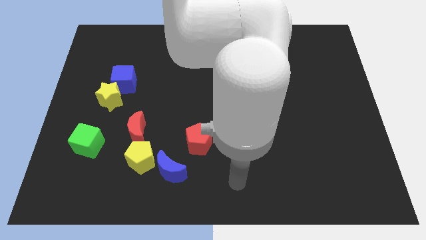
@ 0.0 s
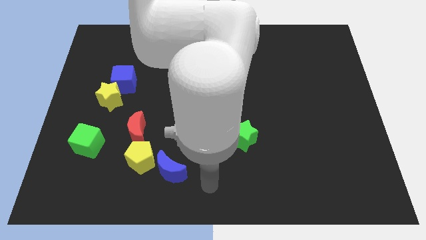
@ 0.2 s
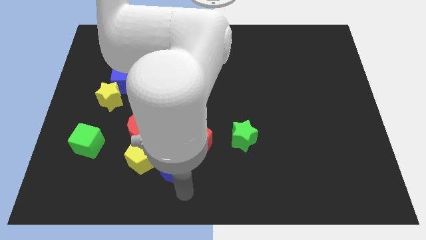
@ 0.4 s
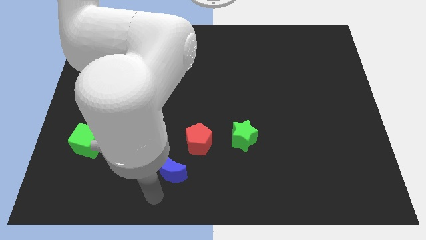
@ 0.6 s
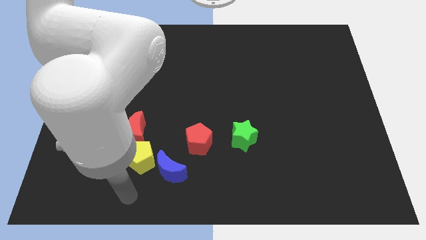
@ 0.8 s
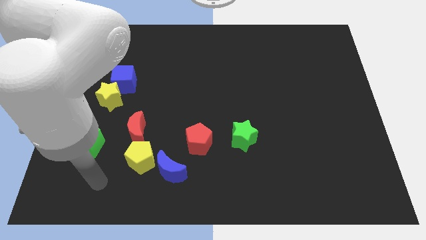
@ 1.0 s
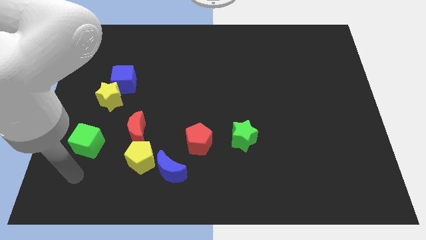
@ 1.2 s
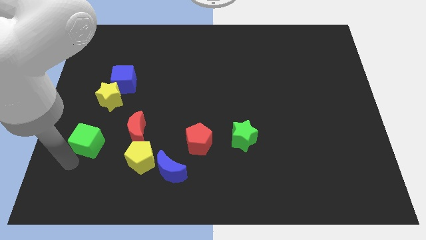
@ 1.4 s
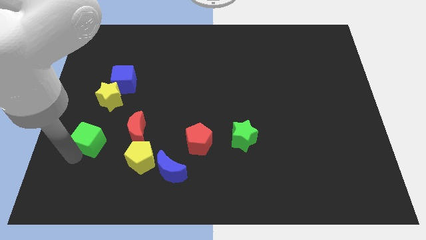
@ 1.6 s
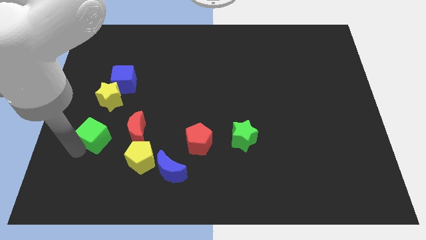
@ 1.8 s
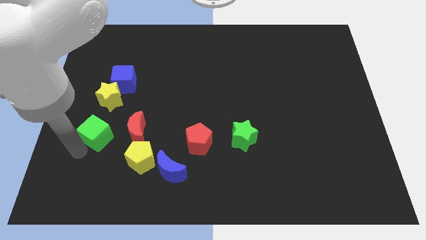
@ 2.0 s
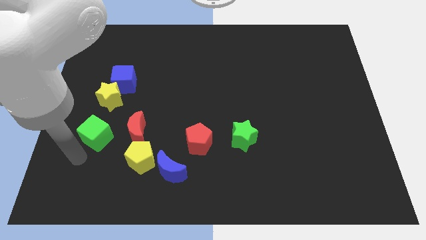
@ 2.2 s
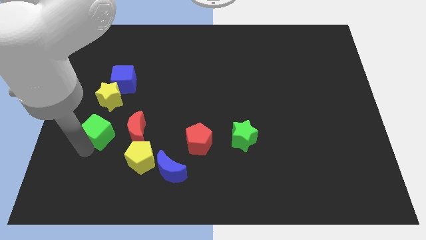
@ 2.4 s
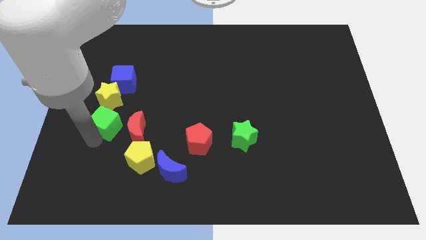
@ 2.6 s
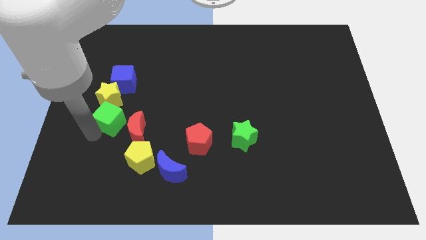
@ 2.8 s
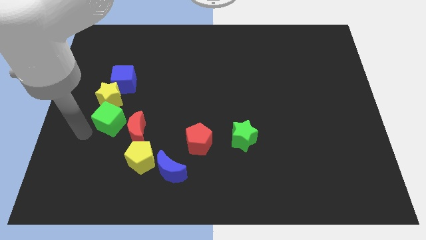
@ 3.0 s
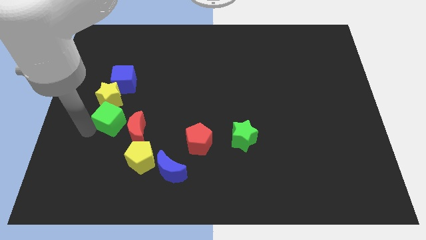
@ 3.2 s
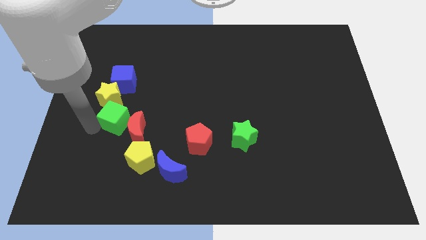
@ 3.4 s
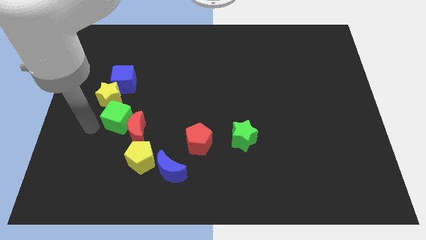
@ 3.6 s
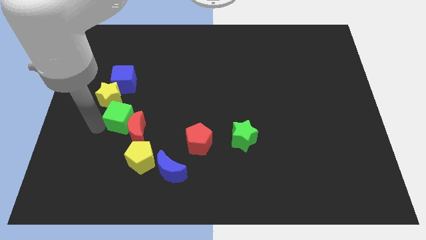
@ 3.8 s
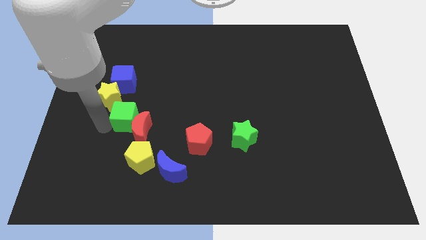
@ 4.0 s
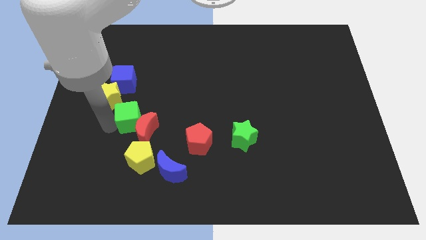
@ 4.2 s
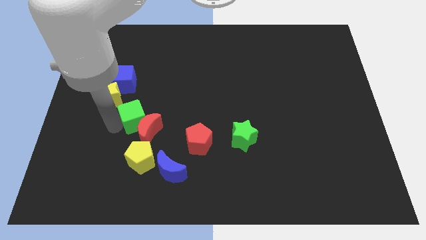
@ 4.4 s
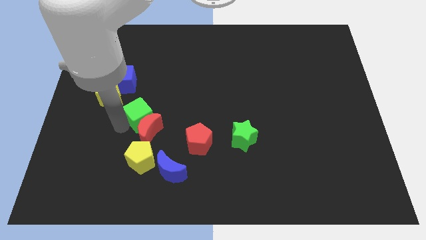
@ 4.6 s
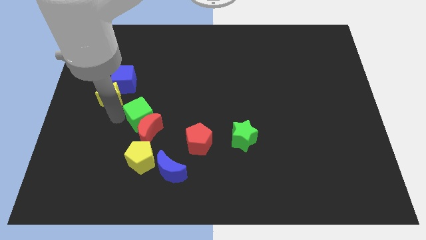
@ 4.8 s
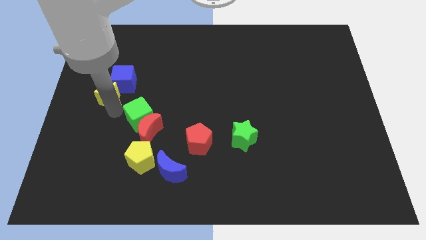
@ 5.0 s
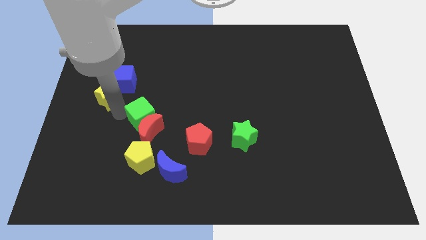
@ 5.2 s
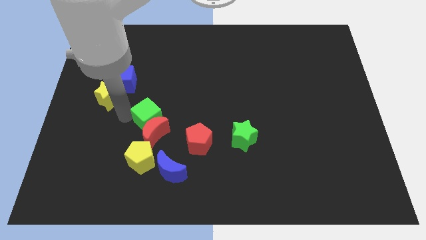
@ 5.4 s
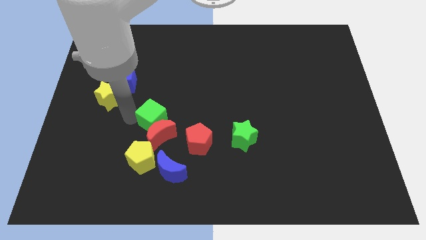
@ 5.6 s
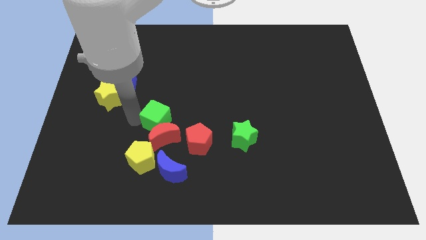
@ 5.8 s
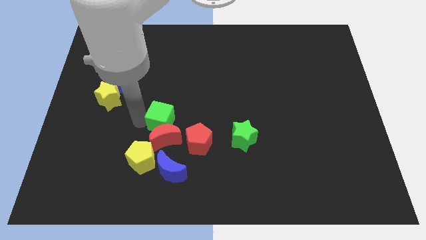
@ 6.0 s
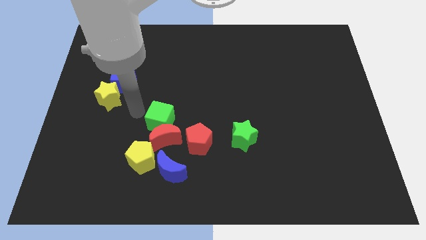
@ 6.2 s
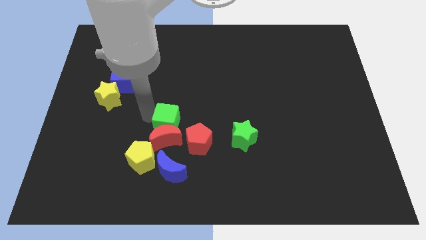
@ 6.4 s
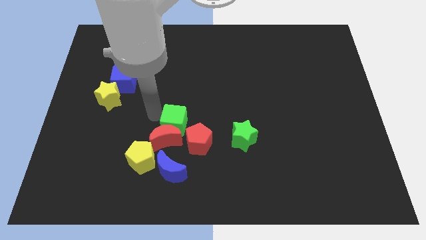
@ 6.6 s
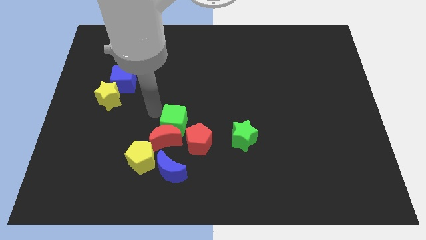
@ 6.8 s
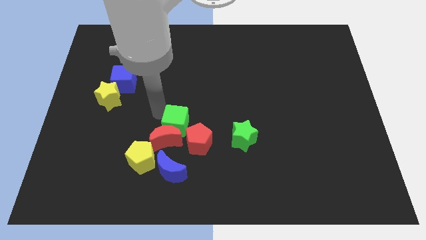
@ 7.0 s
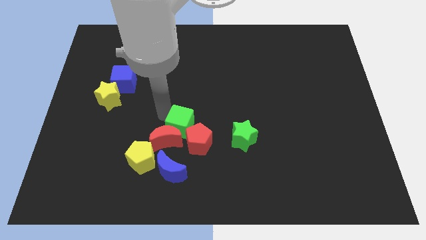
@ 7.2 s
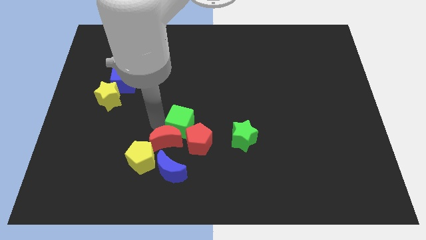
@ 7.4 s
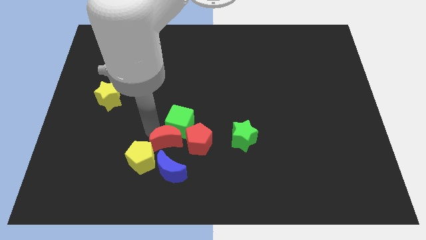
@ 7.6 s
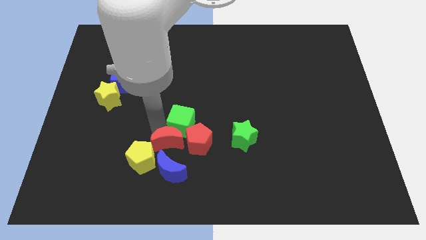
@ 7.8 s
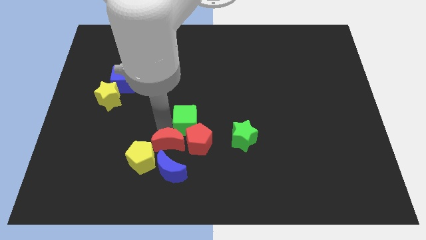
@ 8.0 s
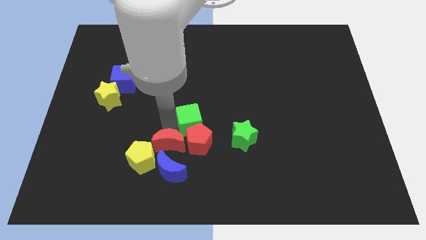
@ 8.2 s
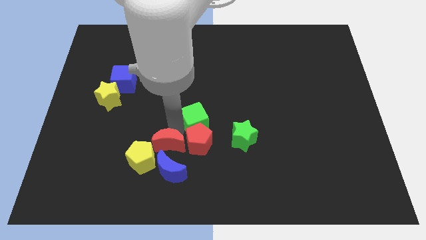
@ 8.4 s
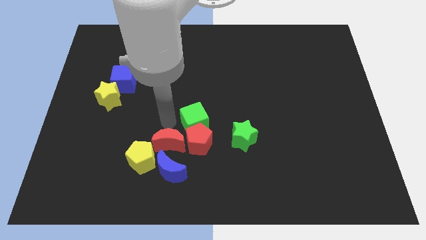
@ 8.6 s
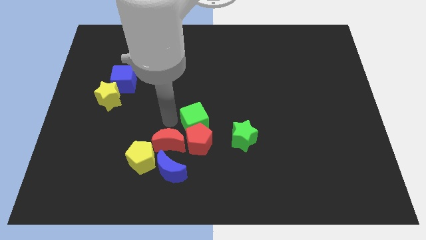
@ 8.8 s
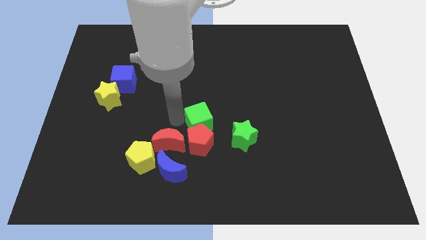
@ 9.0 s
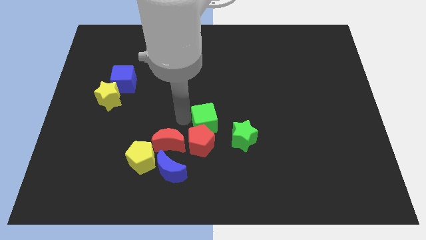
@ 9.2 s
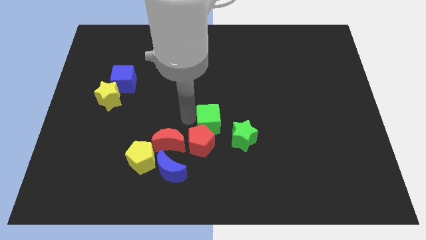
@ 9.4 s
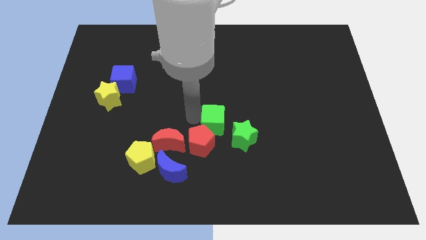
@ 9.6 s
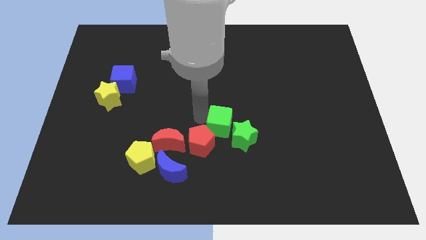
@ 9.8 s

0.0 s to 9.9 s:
move the green cube to the green star

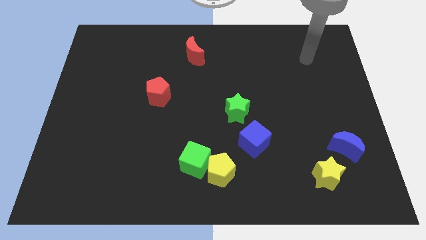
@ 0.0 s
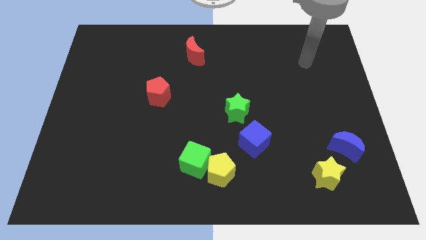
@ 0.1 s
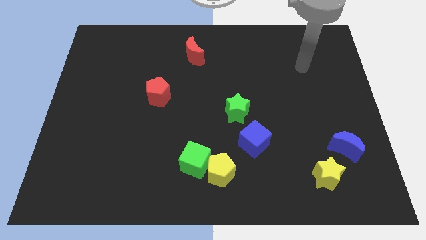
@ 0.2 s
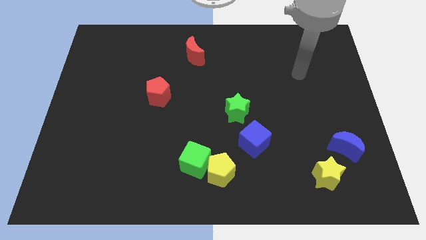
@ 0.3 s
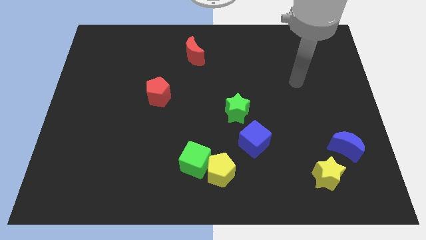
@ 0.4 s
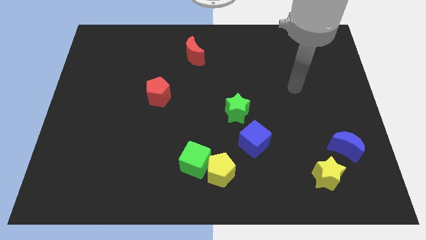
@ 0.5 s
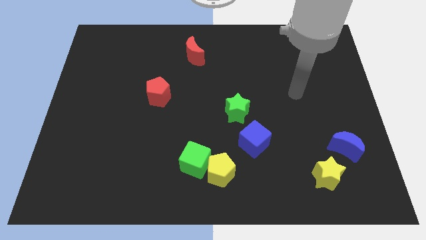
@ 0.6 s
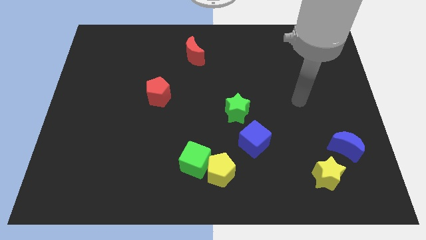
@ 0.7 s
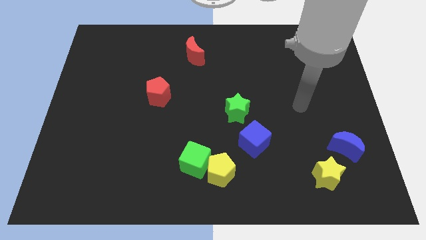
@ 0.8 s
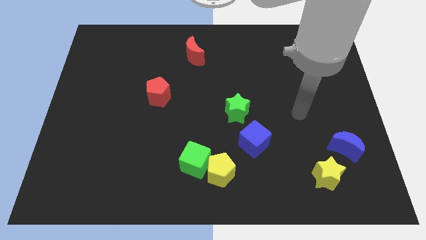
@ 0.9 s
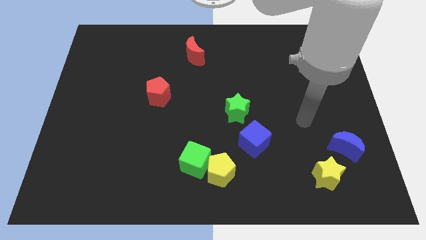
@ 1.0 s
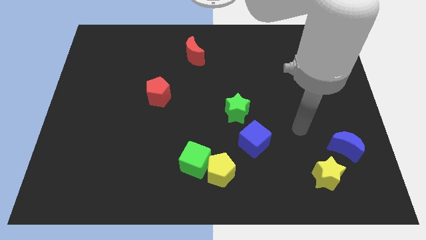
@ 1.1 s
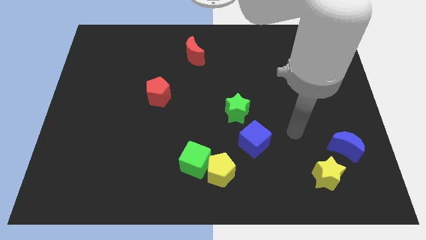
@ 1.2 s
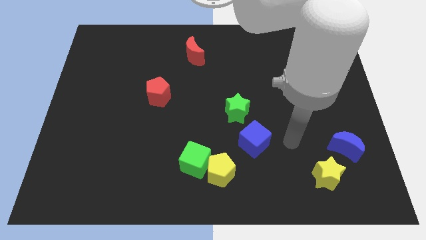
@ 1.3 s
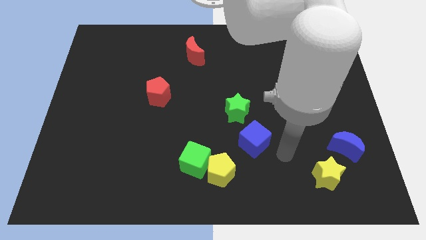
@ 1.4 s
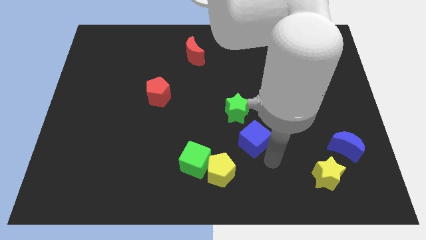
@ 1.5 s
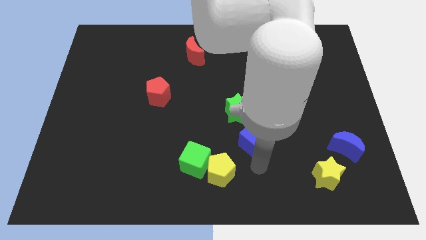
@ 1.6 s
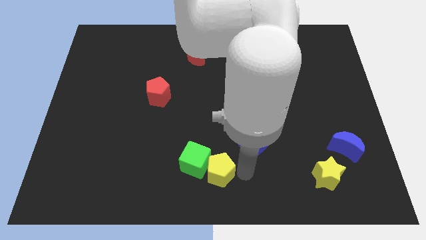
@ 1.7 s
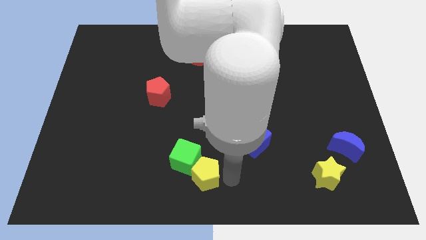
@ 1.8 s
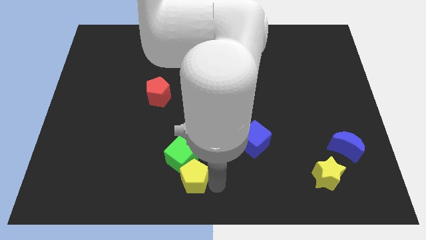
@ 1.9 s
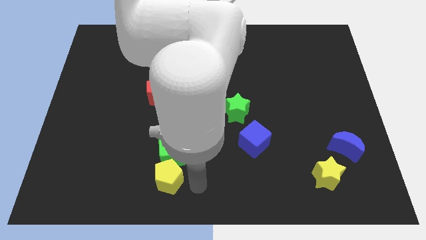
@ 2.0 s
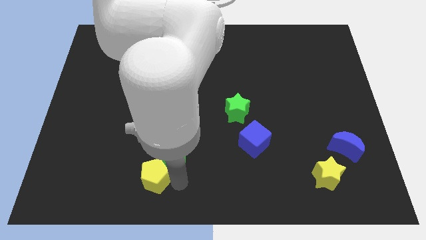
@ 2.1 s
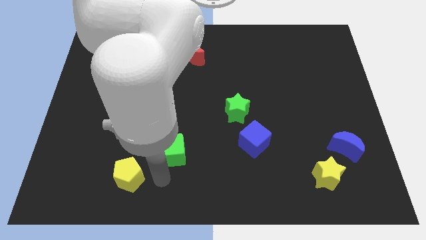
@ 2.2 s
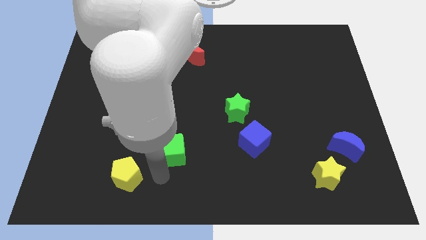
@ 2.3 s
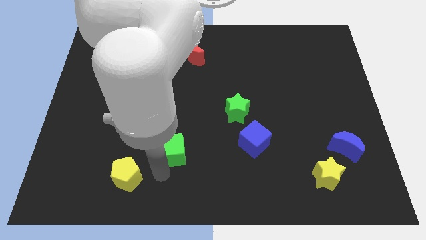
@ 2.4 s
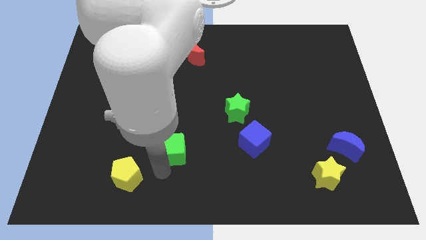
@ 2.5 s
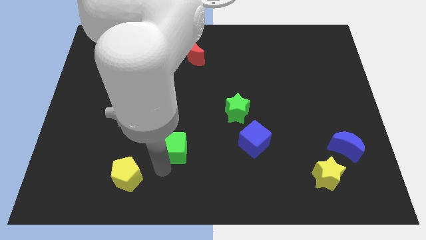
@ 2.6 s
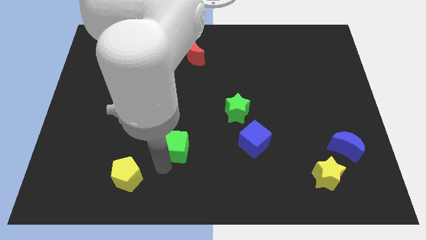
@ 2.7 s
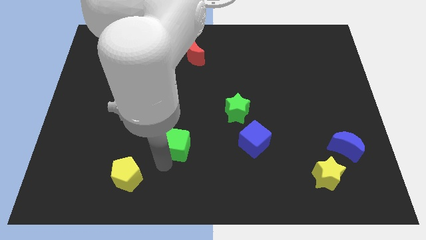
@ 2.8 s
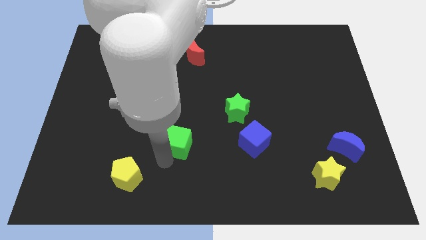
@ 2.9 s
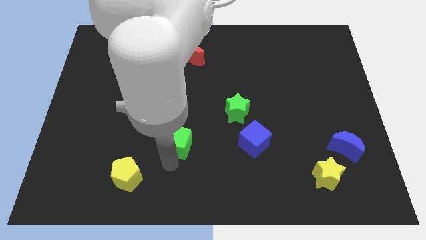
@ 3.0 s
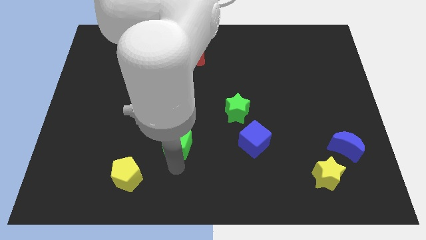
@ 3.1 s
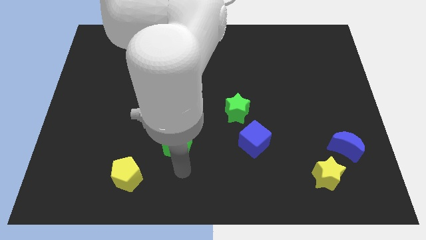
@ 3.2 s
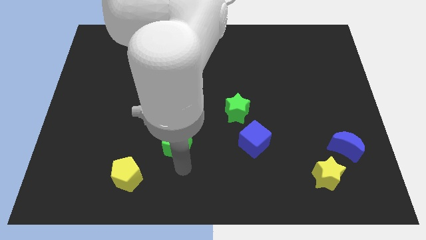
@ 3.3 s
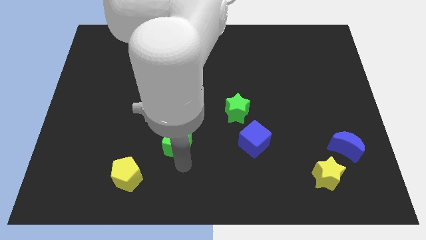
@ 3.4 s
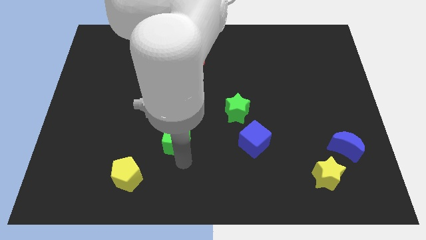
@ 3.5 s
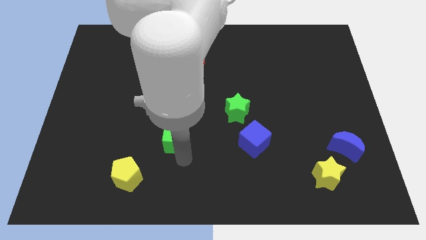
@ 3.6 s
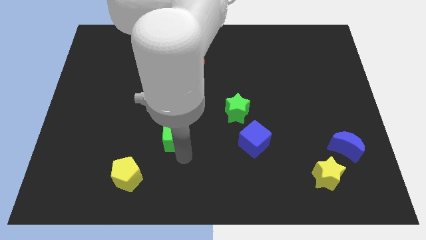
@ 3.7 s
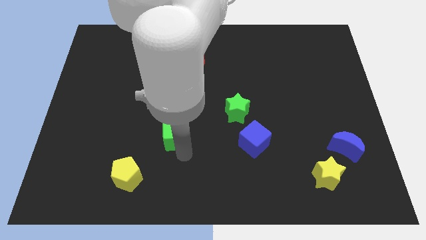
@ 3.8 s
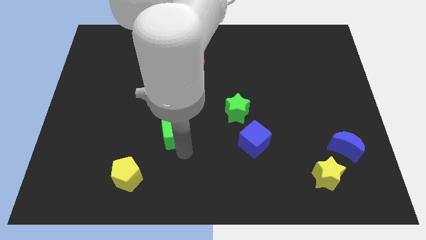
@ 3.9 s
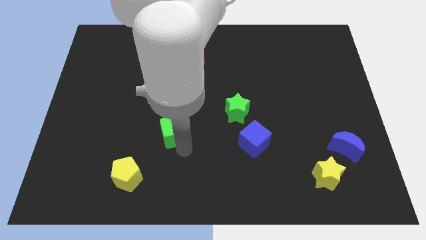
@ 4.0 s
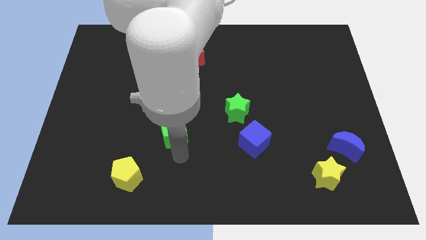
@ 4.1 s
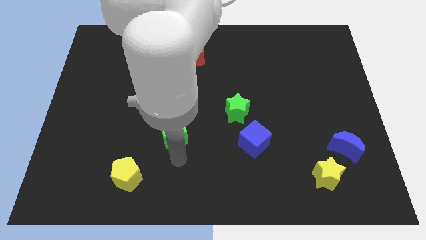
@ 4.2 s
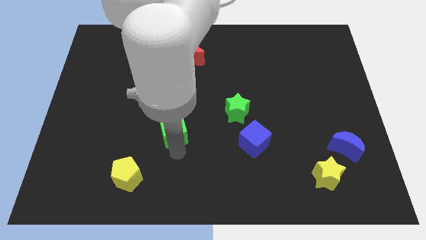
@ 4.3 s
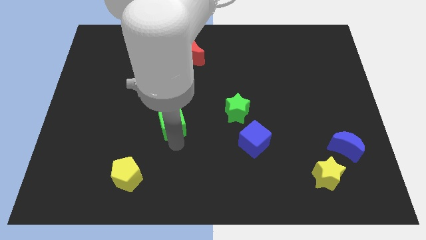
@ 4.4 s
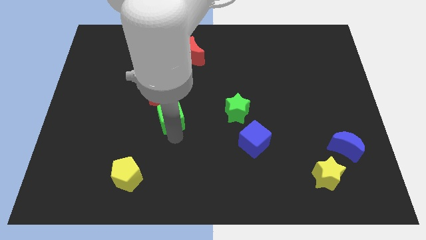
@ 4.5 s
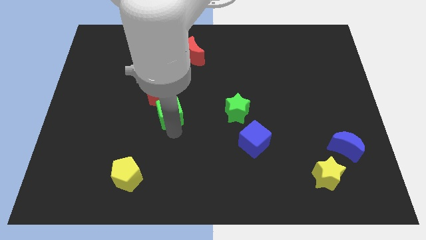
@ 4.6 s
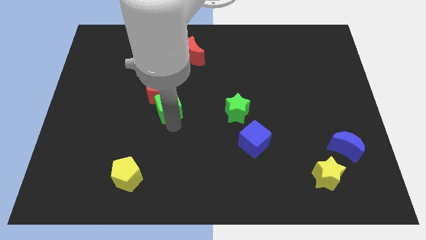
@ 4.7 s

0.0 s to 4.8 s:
push the green cube towards the red pentagon
